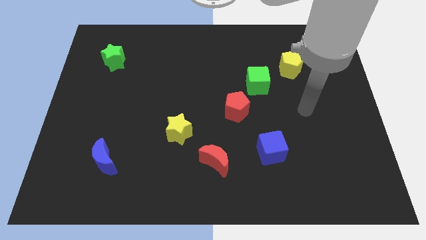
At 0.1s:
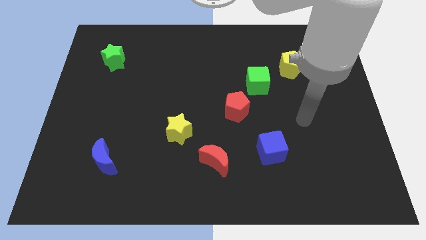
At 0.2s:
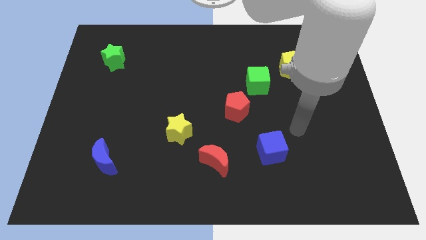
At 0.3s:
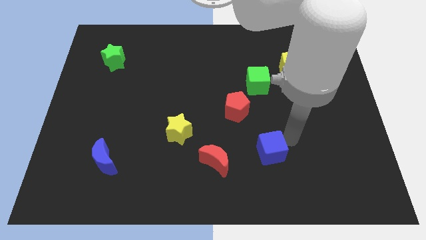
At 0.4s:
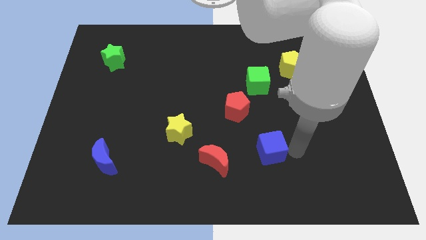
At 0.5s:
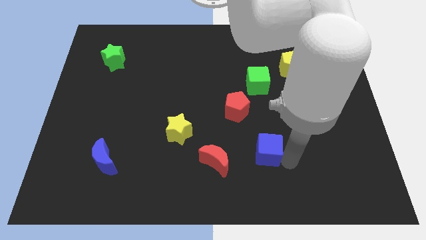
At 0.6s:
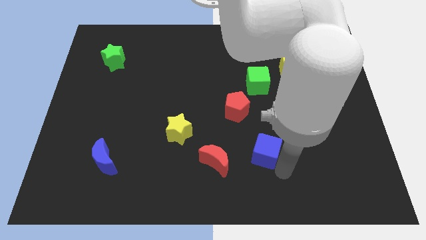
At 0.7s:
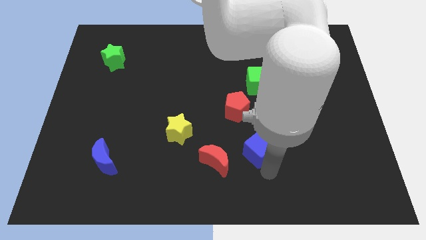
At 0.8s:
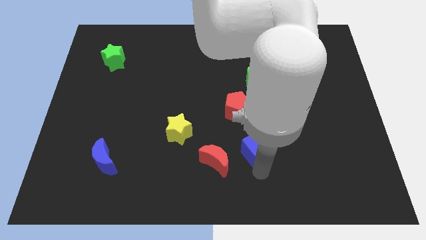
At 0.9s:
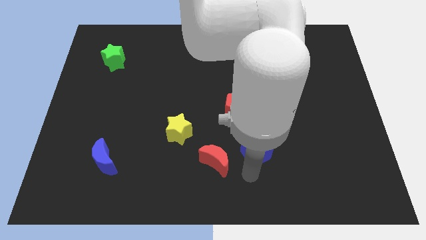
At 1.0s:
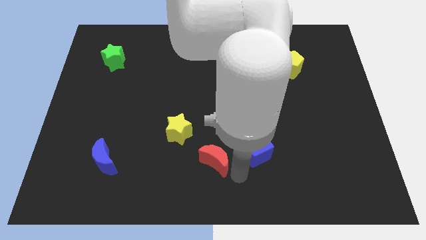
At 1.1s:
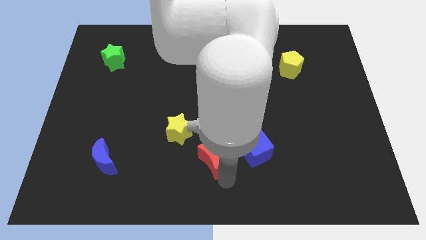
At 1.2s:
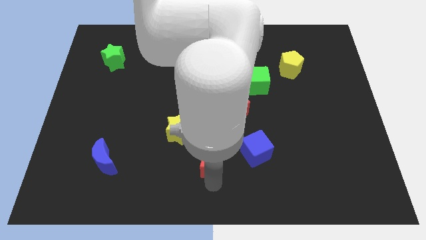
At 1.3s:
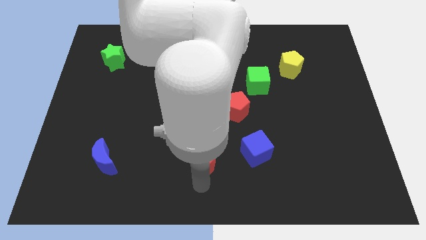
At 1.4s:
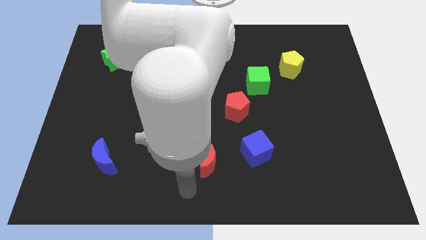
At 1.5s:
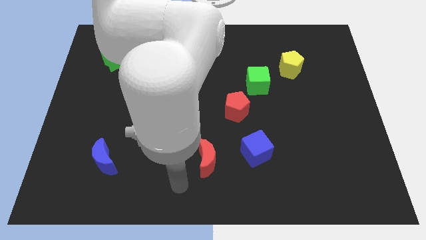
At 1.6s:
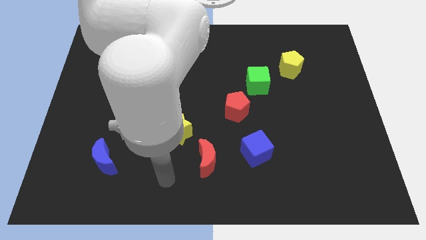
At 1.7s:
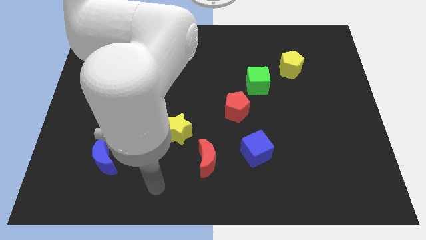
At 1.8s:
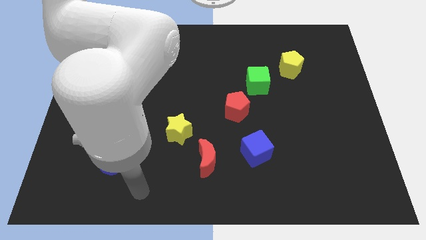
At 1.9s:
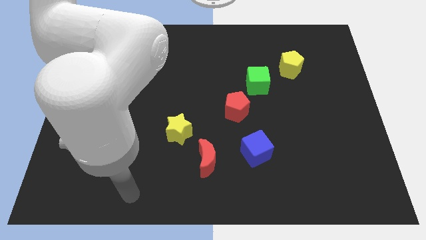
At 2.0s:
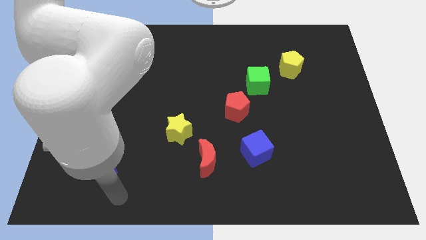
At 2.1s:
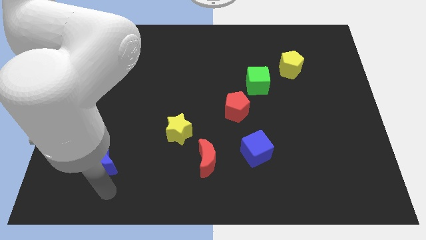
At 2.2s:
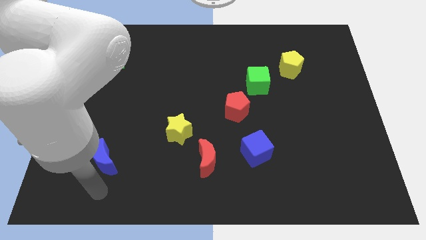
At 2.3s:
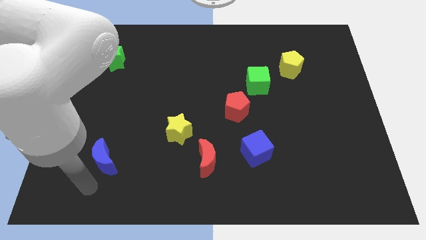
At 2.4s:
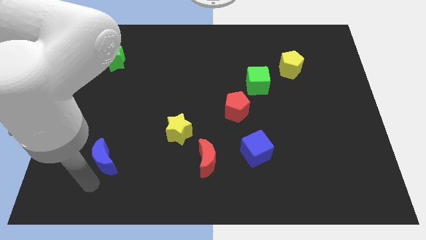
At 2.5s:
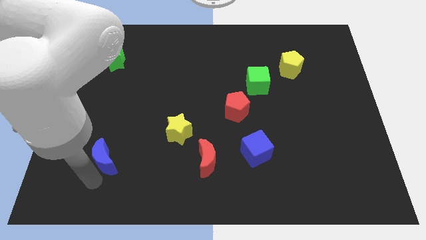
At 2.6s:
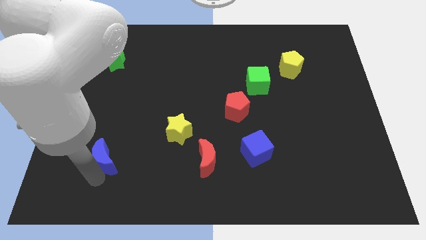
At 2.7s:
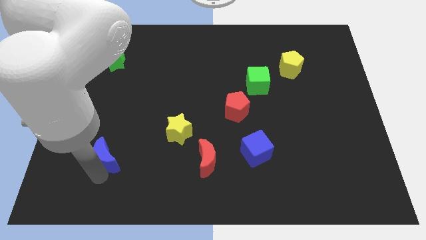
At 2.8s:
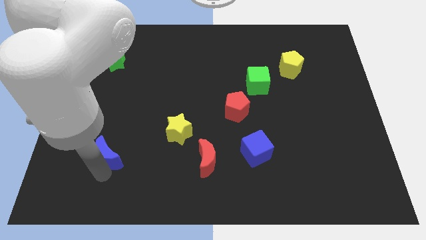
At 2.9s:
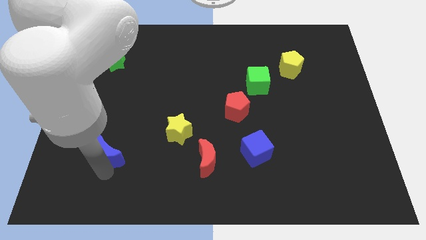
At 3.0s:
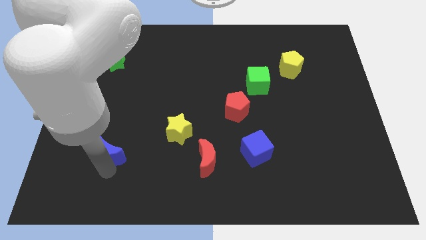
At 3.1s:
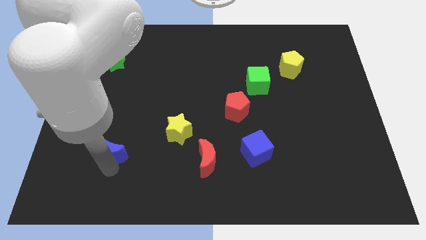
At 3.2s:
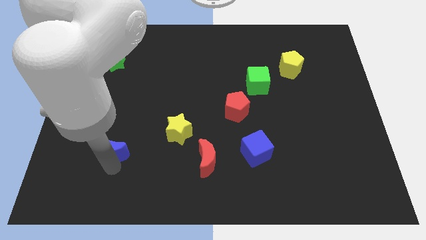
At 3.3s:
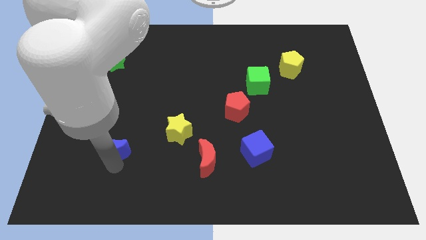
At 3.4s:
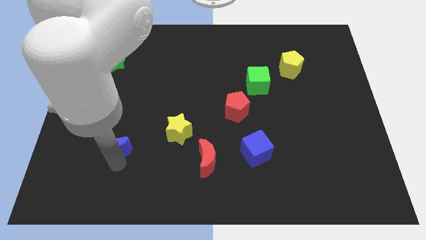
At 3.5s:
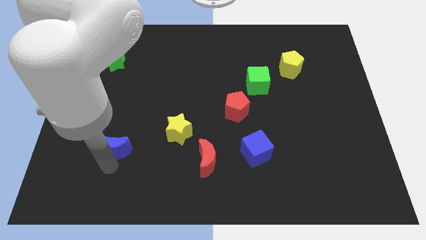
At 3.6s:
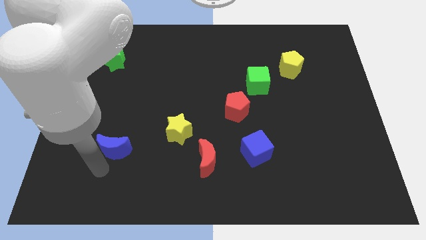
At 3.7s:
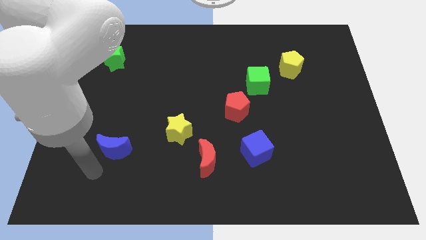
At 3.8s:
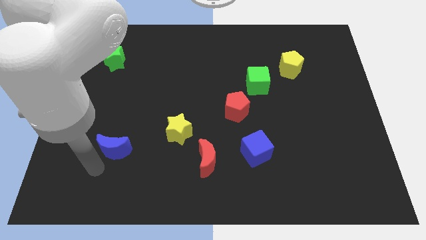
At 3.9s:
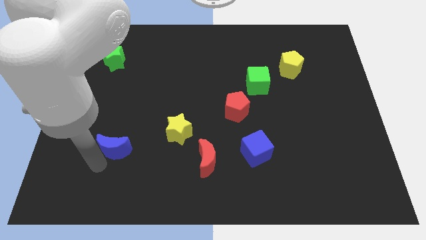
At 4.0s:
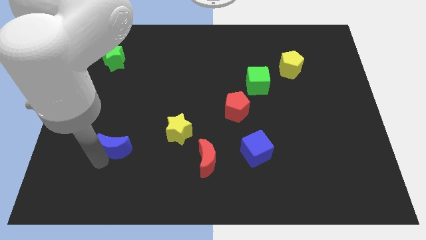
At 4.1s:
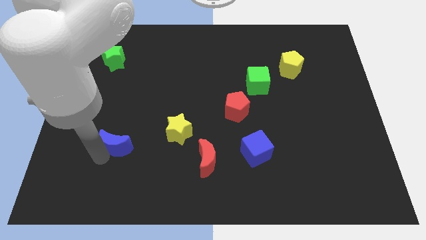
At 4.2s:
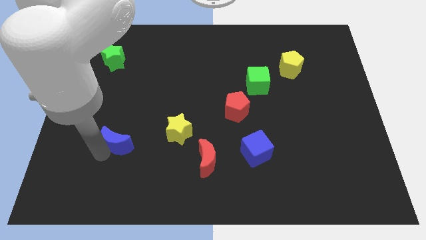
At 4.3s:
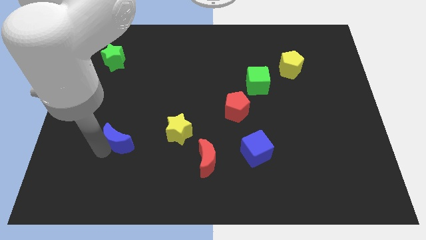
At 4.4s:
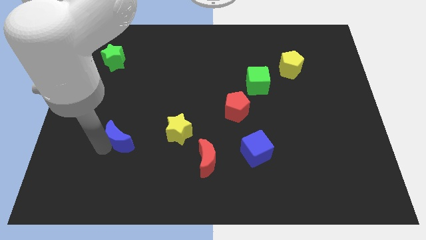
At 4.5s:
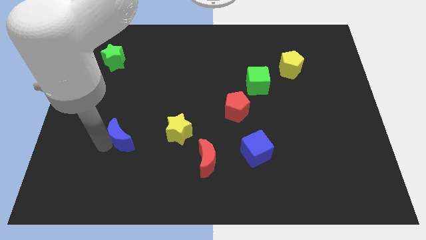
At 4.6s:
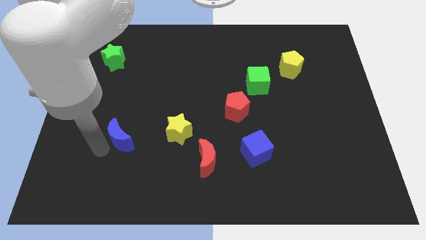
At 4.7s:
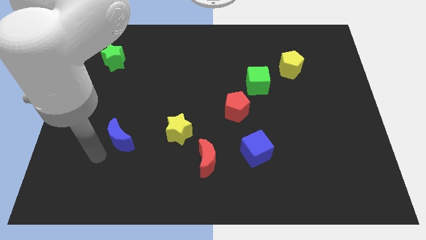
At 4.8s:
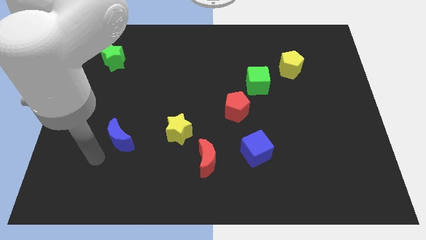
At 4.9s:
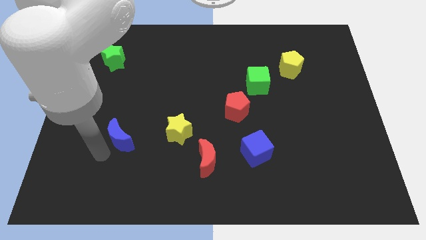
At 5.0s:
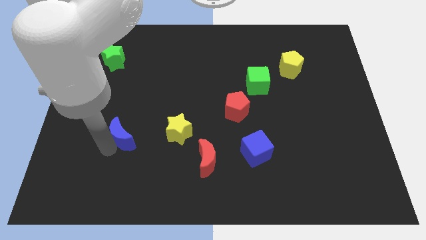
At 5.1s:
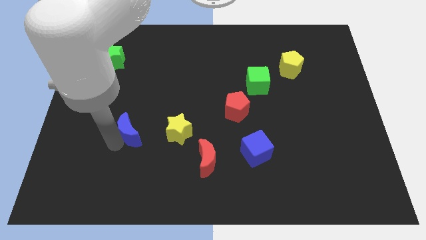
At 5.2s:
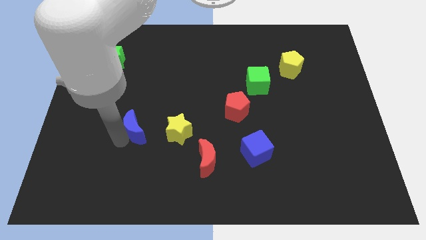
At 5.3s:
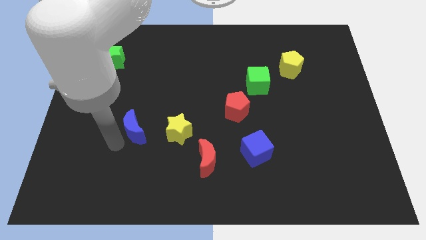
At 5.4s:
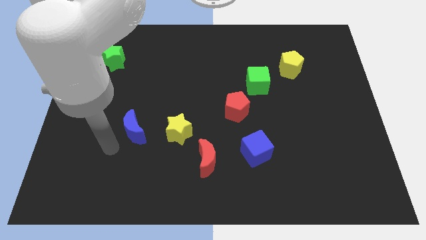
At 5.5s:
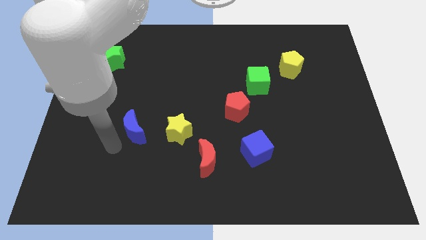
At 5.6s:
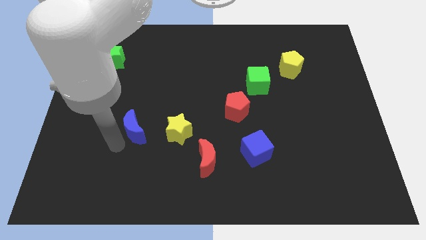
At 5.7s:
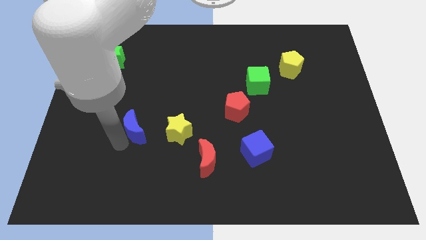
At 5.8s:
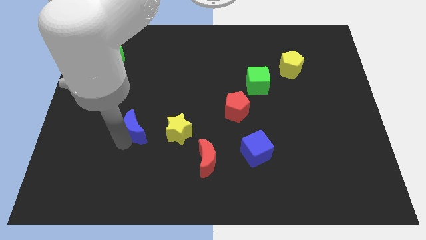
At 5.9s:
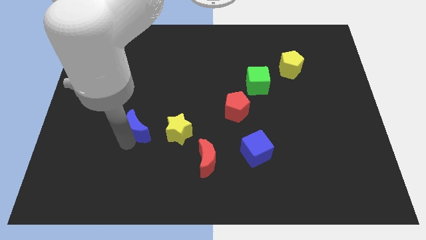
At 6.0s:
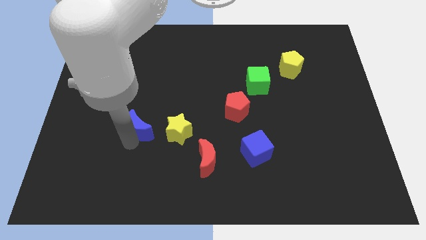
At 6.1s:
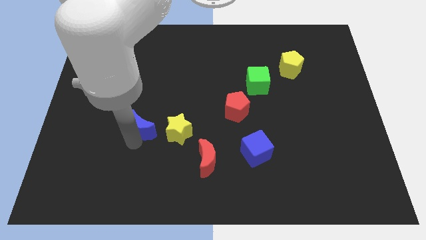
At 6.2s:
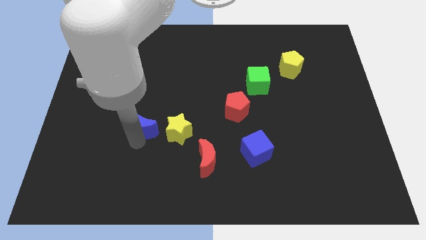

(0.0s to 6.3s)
move the blue moon to the top left of the yellow star

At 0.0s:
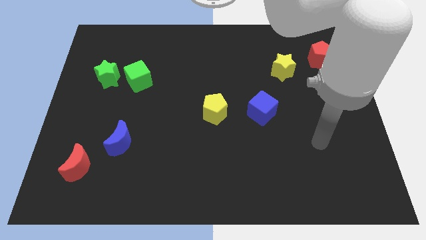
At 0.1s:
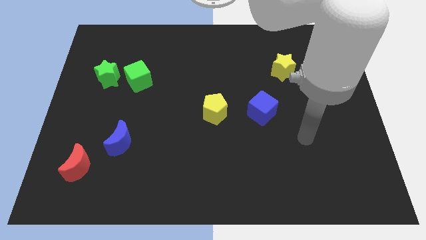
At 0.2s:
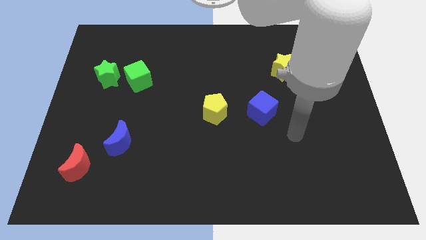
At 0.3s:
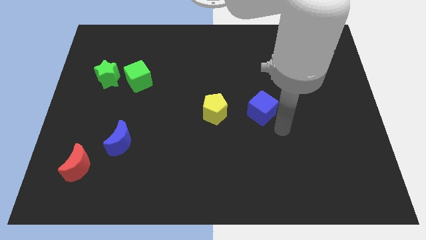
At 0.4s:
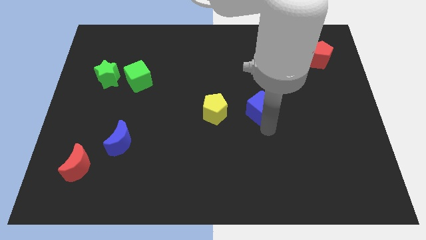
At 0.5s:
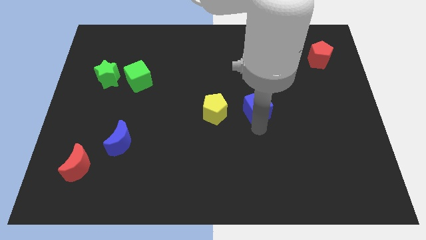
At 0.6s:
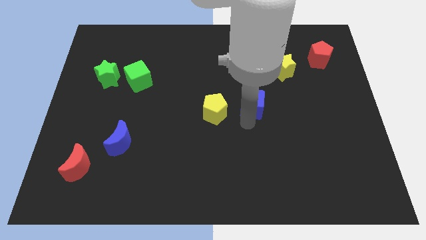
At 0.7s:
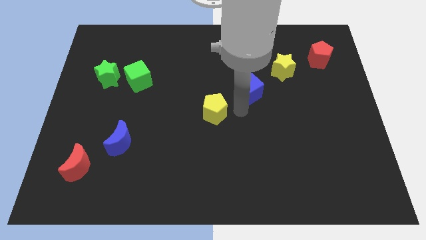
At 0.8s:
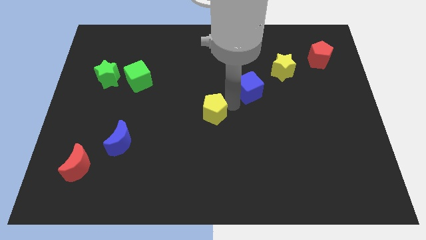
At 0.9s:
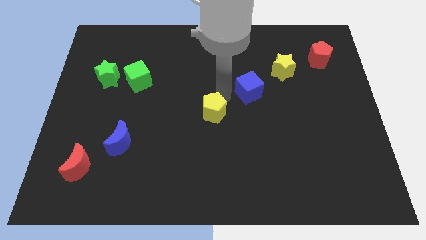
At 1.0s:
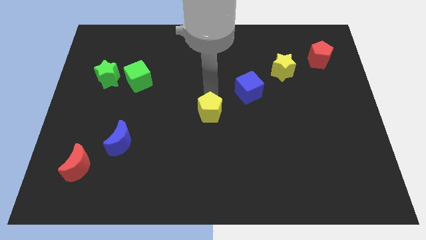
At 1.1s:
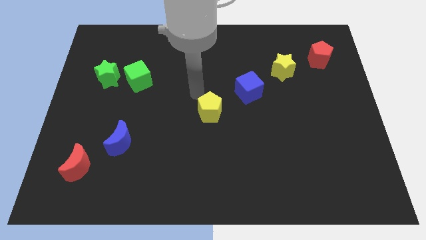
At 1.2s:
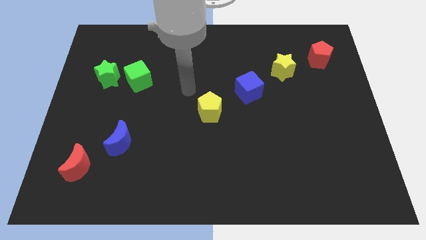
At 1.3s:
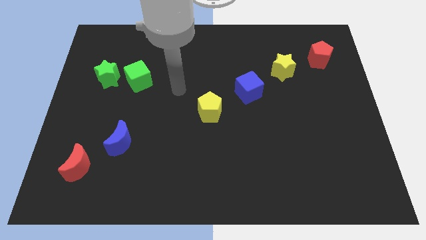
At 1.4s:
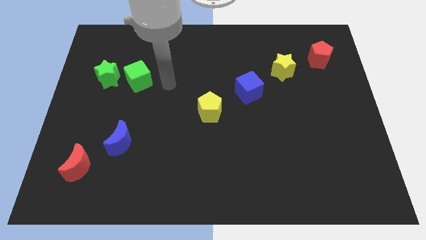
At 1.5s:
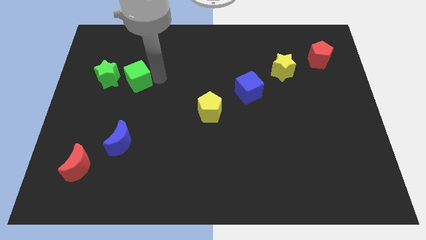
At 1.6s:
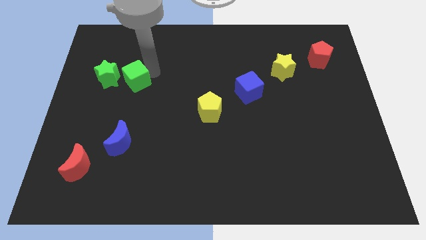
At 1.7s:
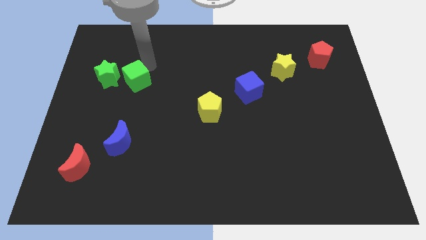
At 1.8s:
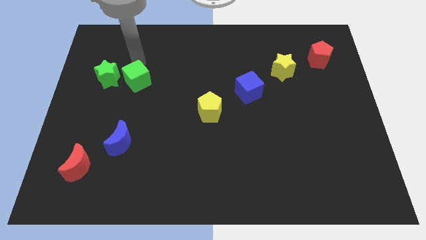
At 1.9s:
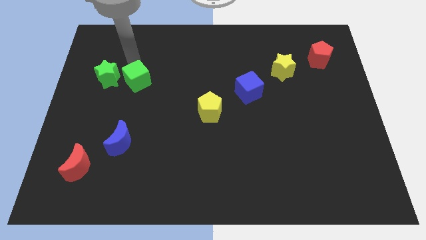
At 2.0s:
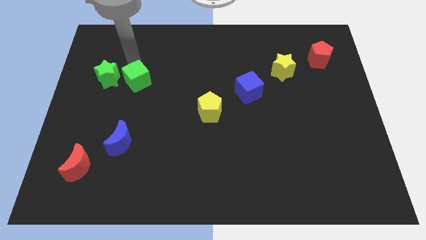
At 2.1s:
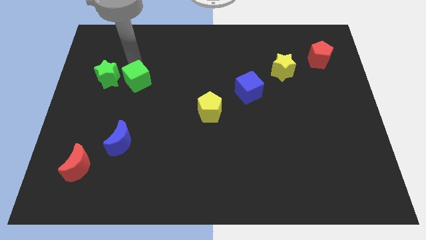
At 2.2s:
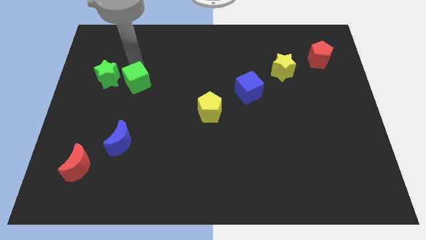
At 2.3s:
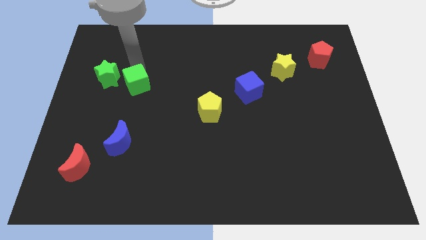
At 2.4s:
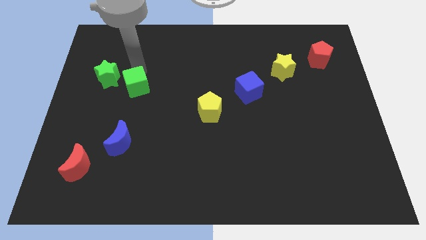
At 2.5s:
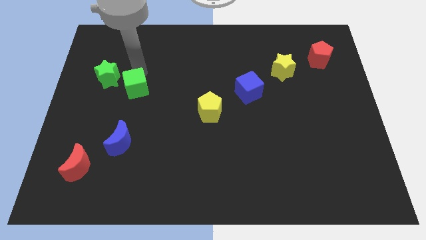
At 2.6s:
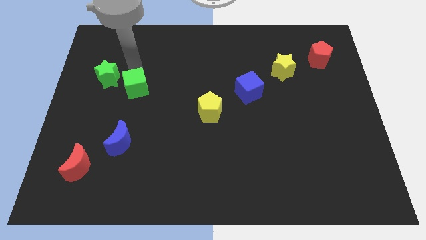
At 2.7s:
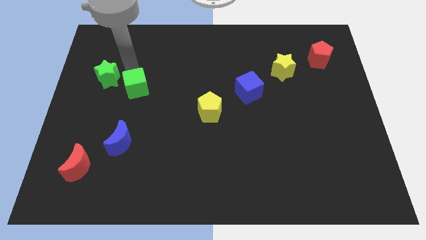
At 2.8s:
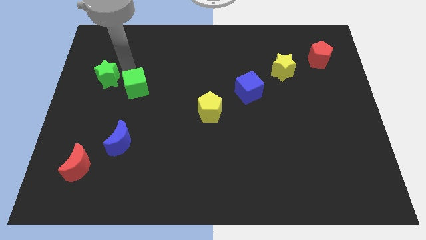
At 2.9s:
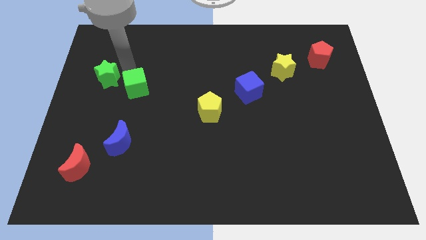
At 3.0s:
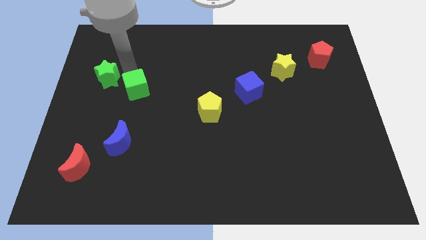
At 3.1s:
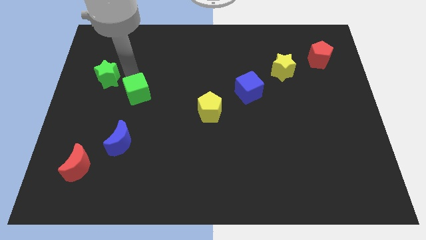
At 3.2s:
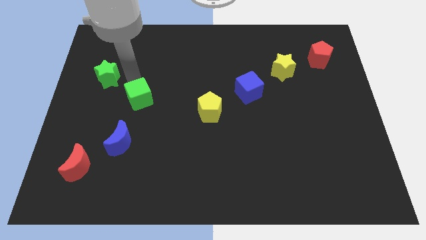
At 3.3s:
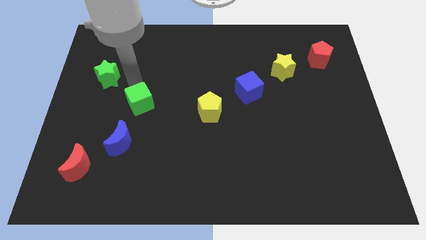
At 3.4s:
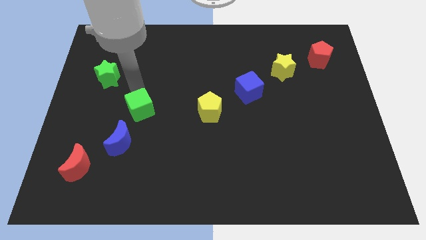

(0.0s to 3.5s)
move the green cube to the top right of the blue moon
